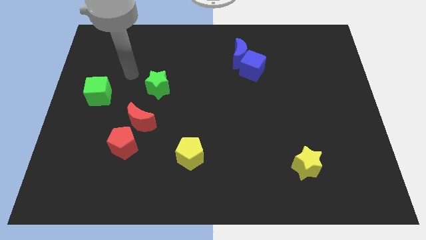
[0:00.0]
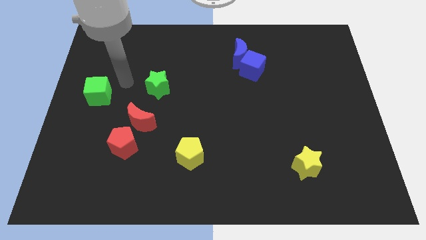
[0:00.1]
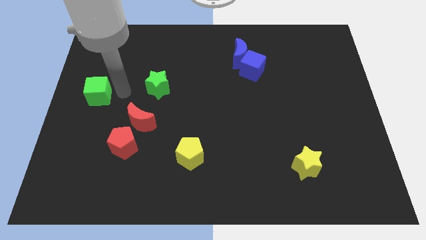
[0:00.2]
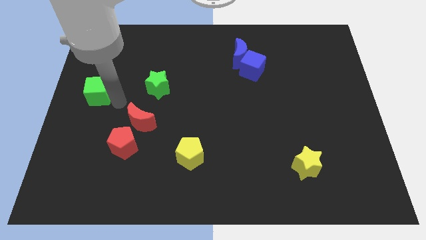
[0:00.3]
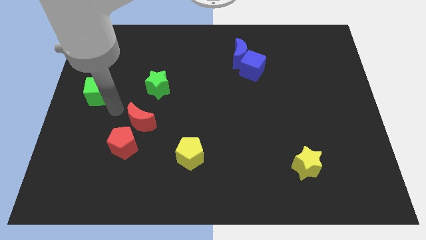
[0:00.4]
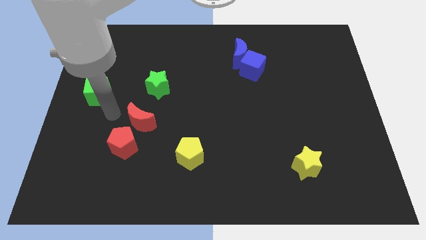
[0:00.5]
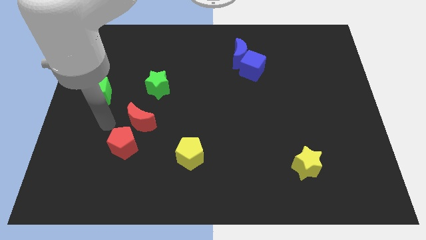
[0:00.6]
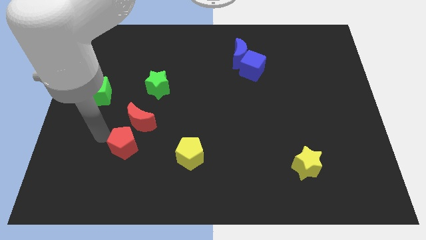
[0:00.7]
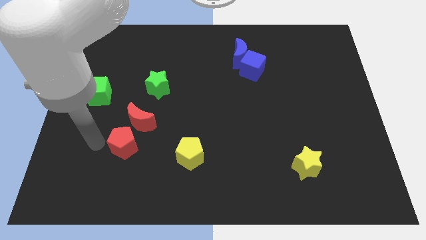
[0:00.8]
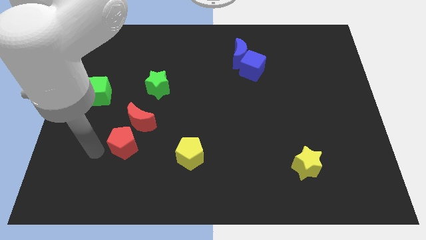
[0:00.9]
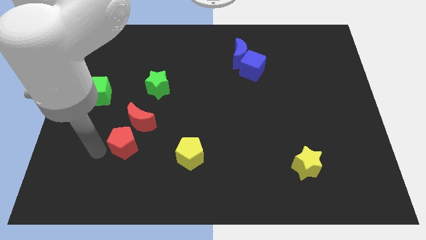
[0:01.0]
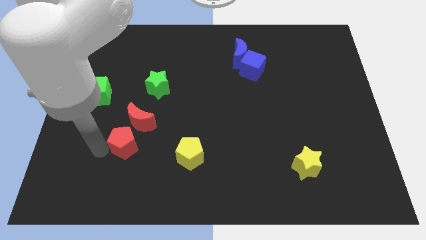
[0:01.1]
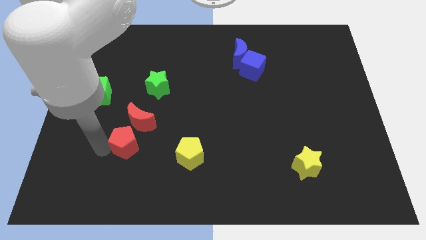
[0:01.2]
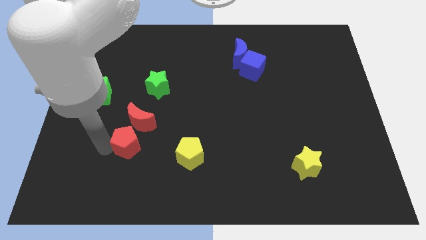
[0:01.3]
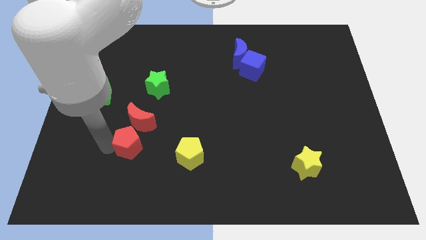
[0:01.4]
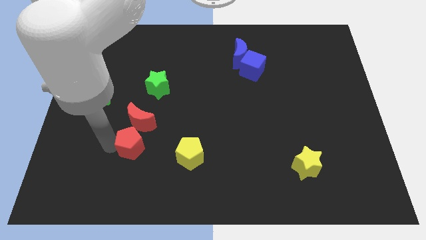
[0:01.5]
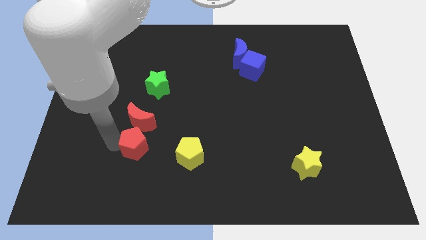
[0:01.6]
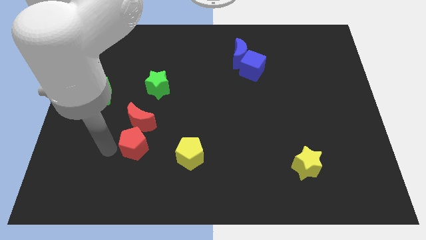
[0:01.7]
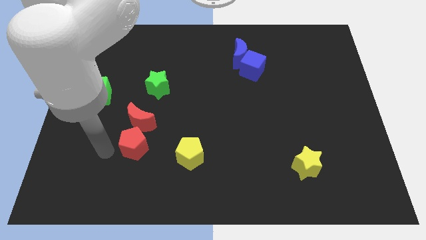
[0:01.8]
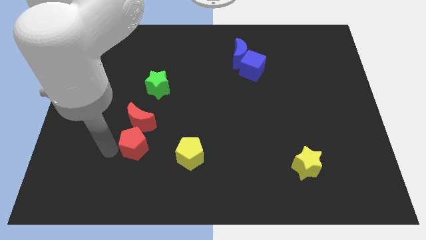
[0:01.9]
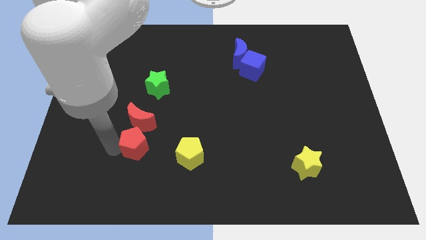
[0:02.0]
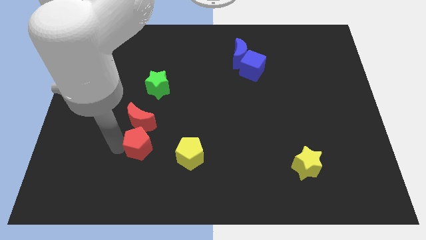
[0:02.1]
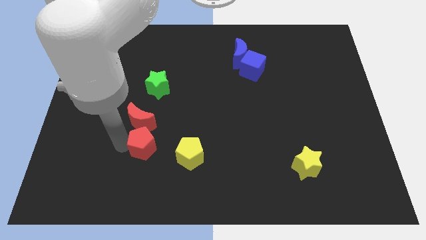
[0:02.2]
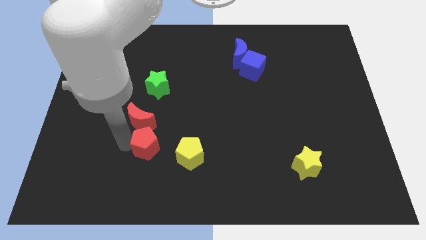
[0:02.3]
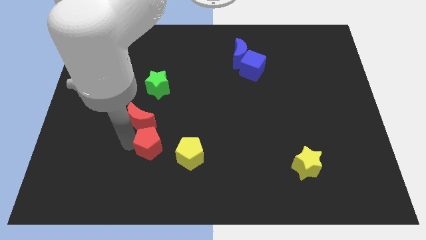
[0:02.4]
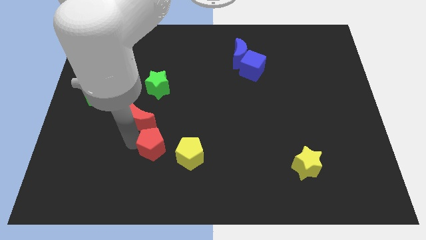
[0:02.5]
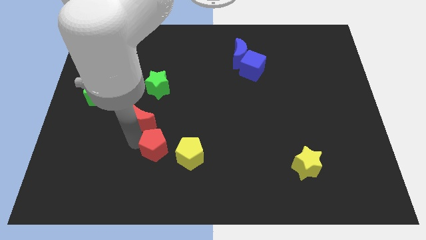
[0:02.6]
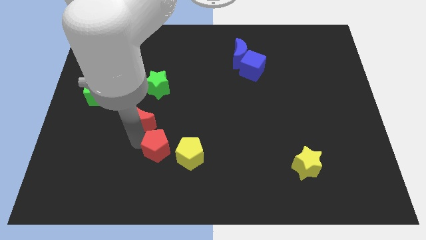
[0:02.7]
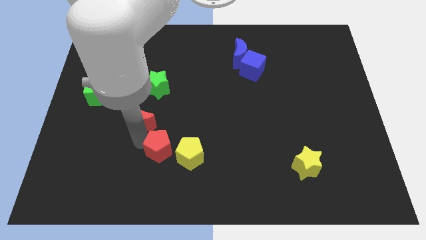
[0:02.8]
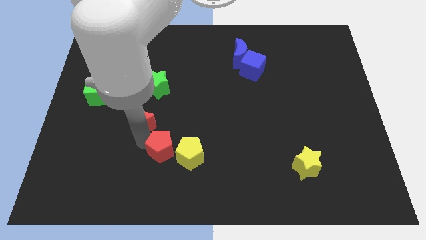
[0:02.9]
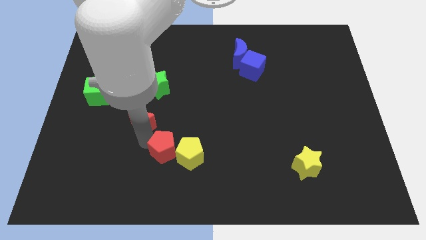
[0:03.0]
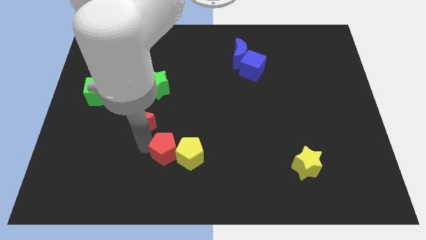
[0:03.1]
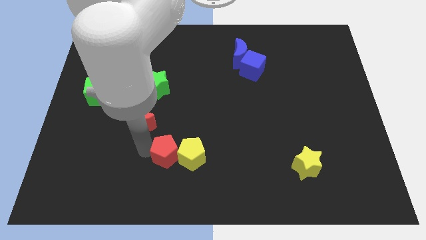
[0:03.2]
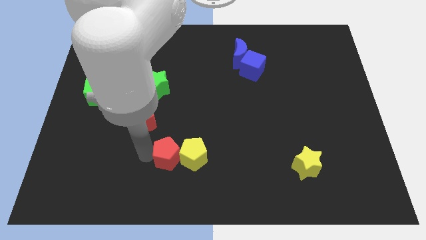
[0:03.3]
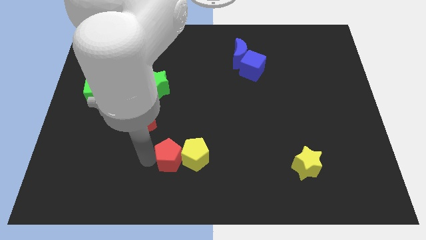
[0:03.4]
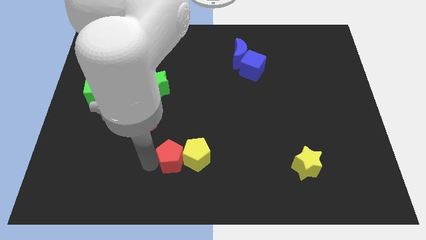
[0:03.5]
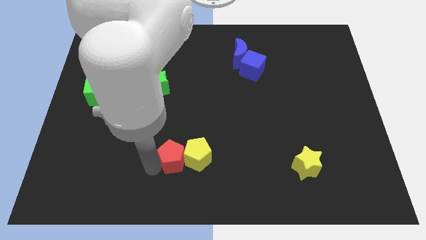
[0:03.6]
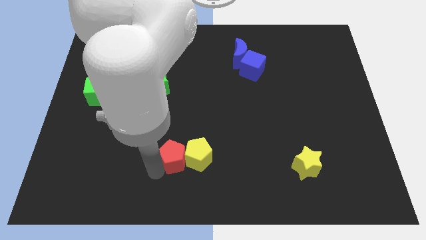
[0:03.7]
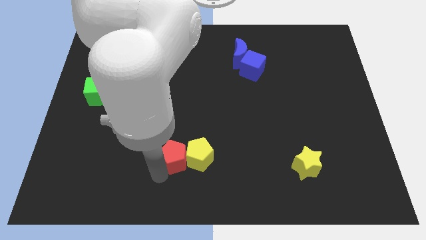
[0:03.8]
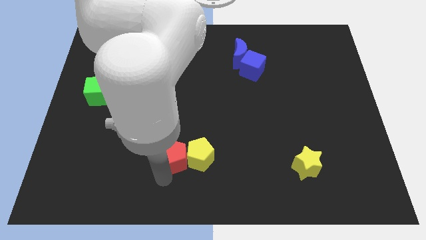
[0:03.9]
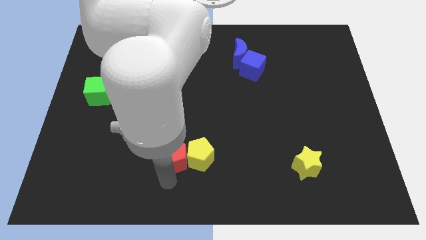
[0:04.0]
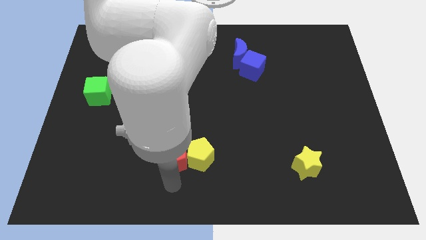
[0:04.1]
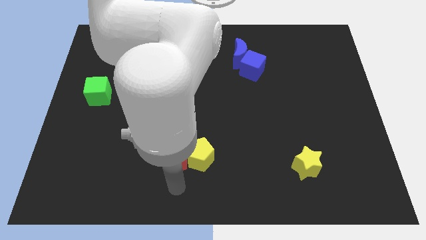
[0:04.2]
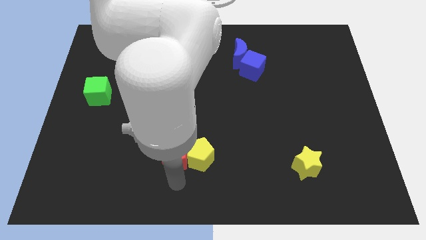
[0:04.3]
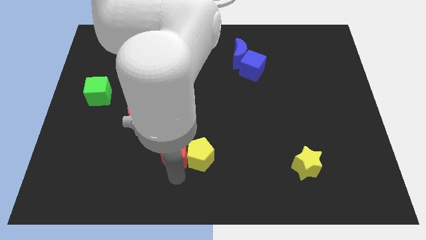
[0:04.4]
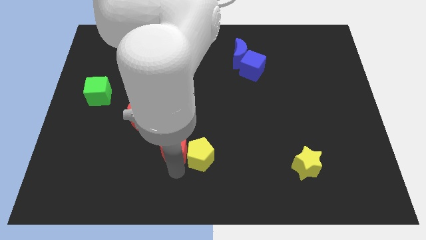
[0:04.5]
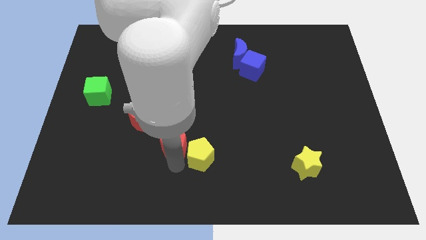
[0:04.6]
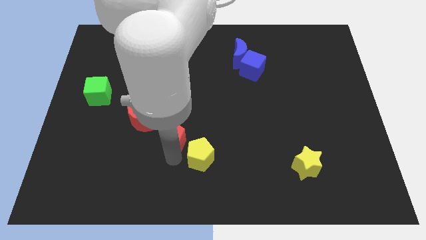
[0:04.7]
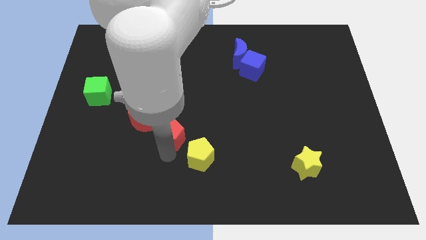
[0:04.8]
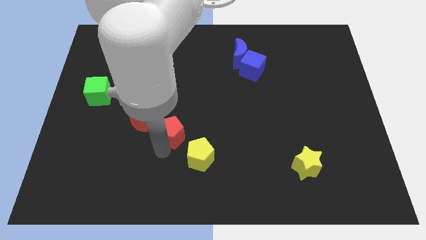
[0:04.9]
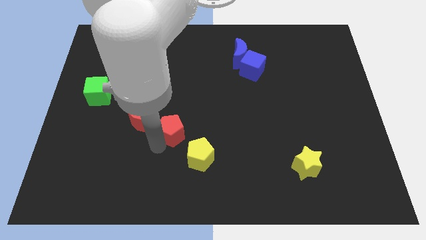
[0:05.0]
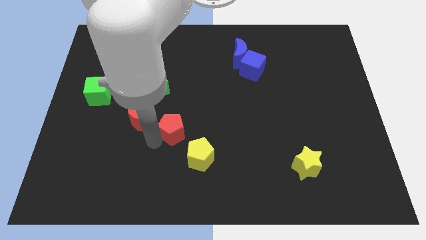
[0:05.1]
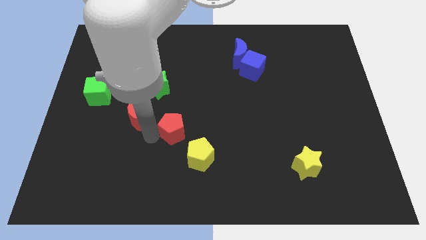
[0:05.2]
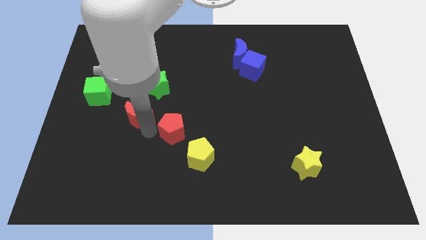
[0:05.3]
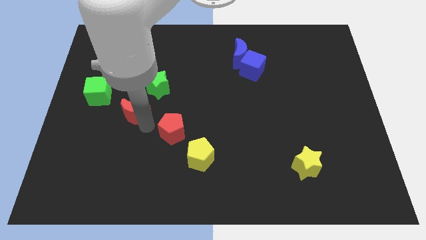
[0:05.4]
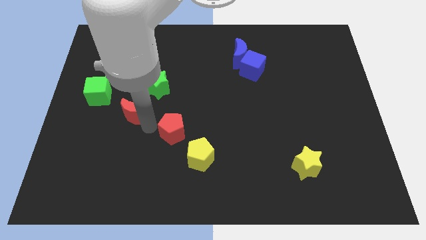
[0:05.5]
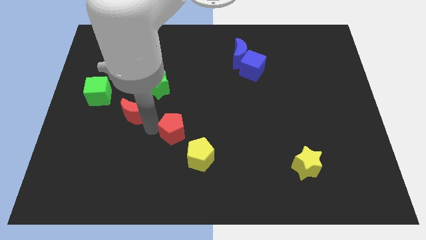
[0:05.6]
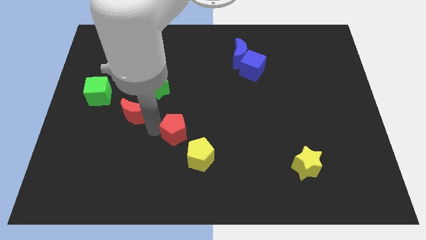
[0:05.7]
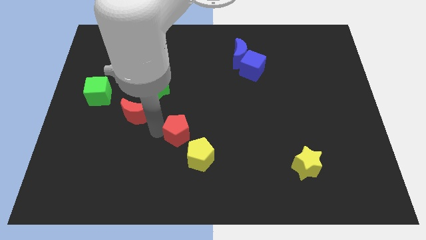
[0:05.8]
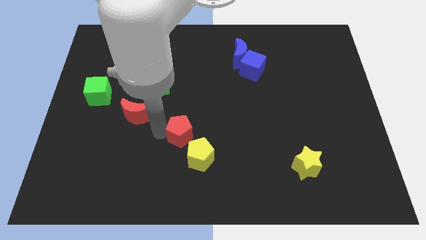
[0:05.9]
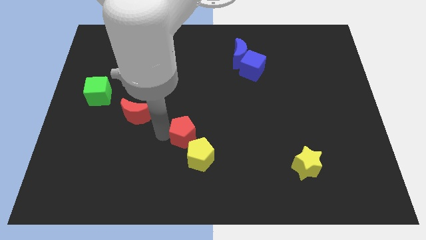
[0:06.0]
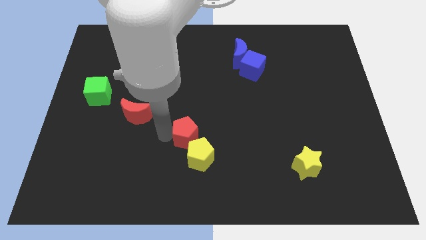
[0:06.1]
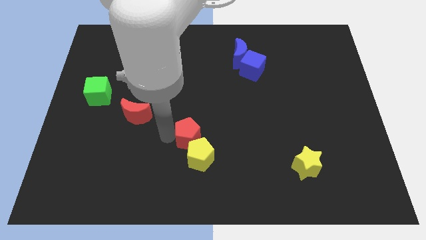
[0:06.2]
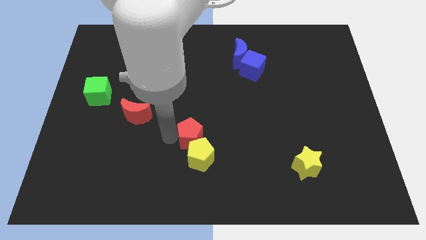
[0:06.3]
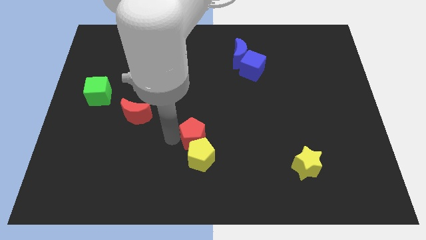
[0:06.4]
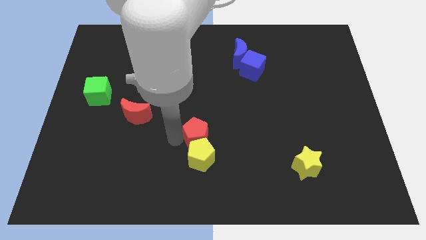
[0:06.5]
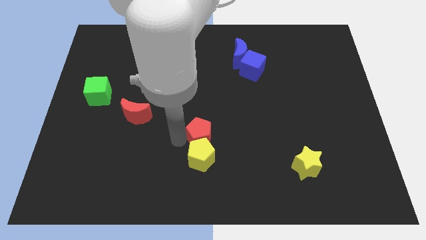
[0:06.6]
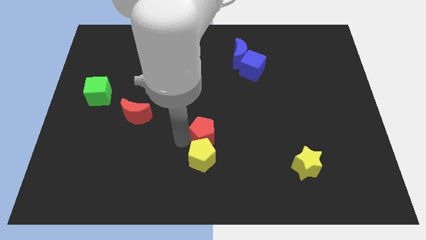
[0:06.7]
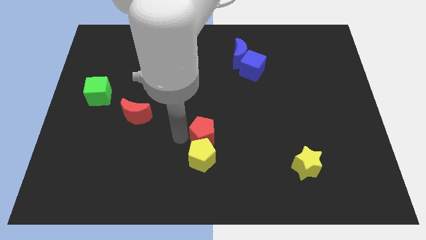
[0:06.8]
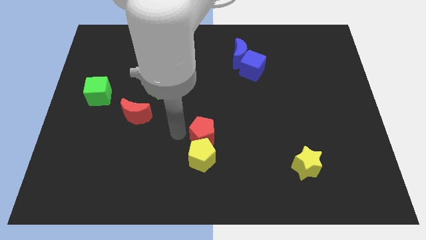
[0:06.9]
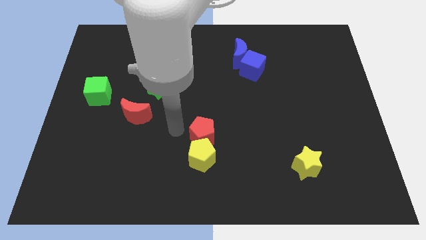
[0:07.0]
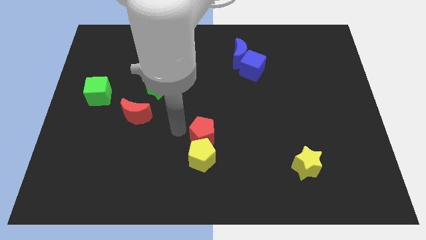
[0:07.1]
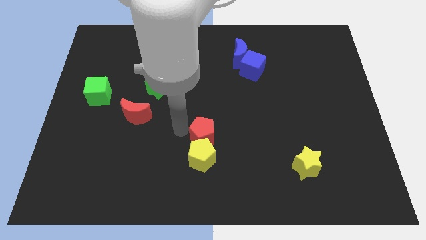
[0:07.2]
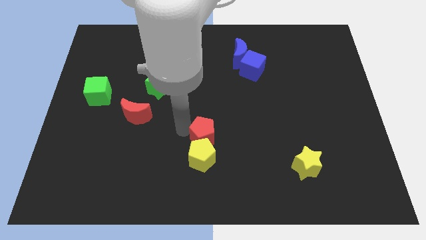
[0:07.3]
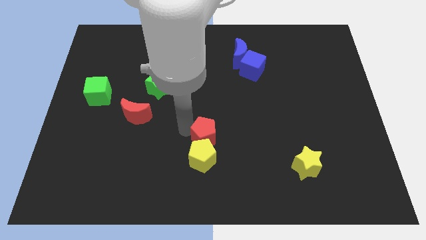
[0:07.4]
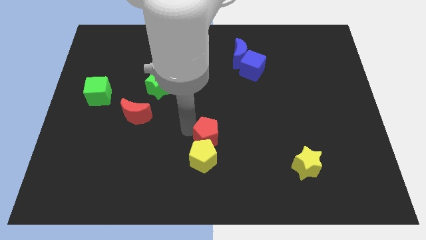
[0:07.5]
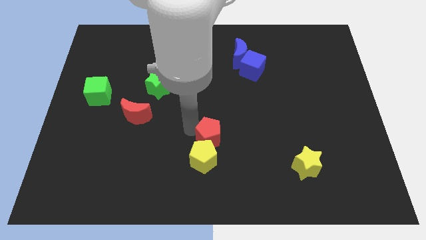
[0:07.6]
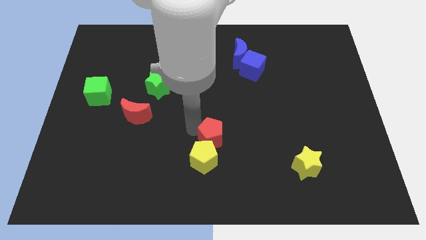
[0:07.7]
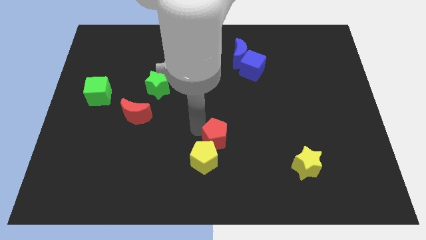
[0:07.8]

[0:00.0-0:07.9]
move the red pentagon to the right
